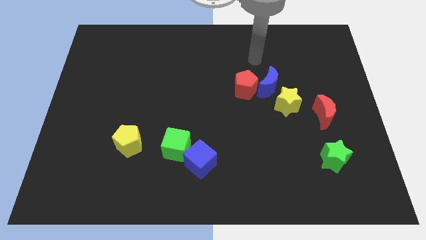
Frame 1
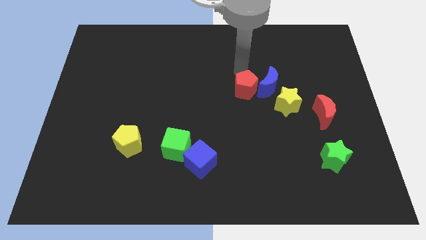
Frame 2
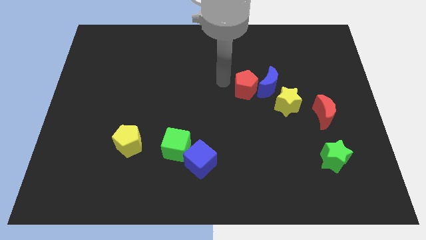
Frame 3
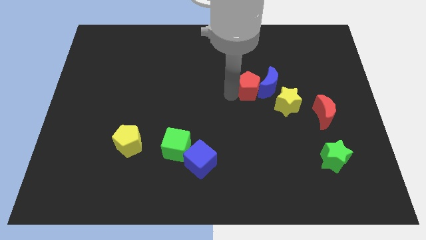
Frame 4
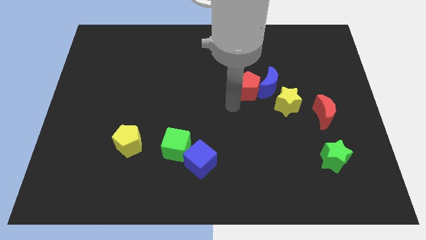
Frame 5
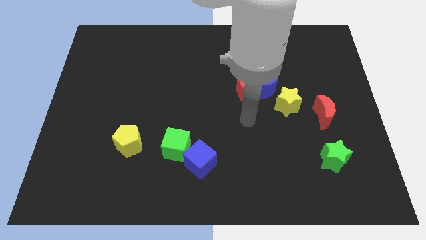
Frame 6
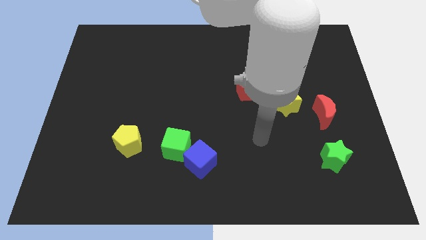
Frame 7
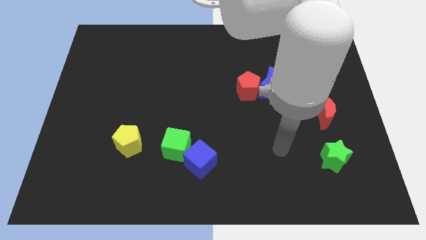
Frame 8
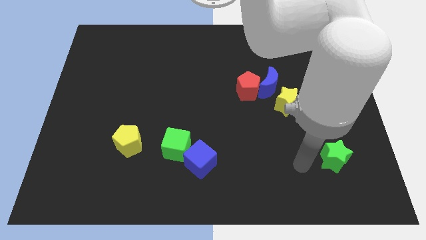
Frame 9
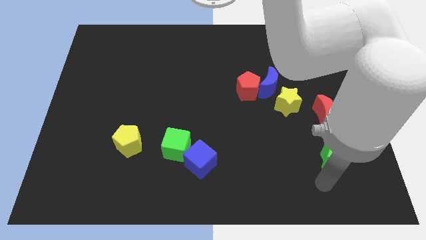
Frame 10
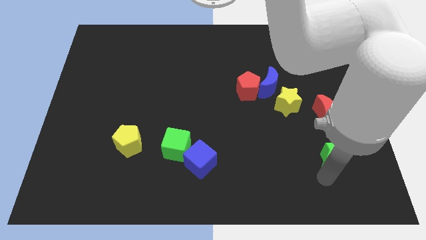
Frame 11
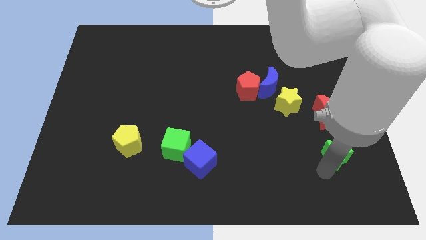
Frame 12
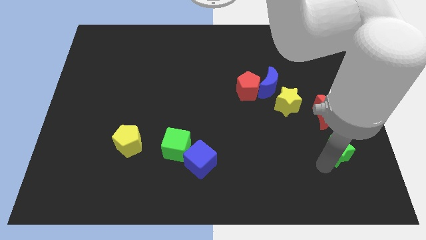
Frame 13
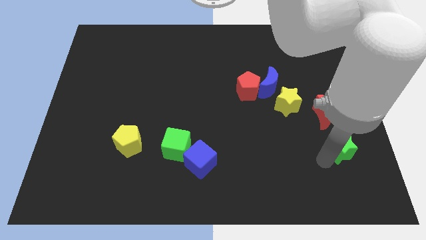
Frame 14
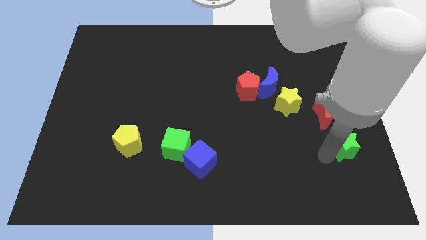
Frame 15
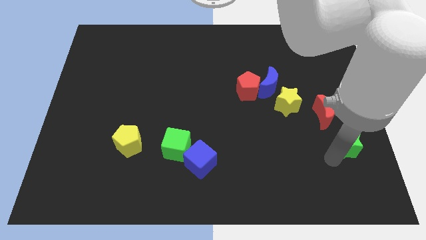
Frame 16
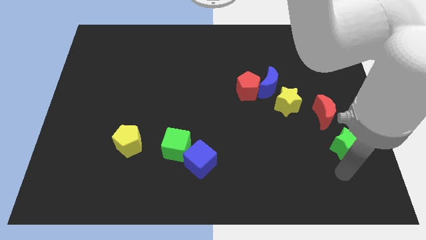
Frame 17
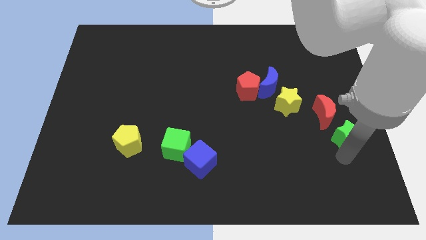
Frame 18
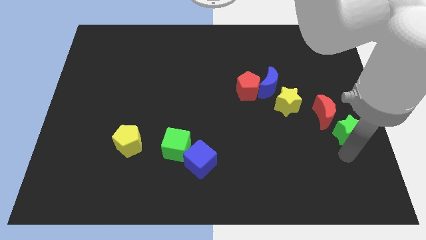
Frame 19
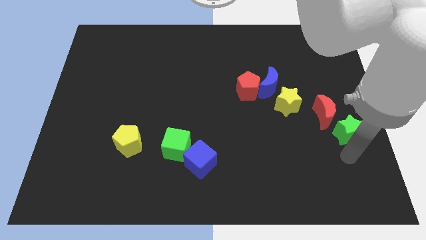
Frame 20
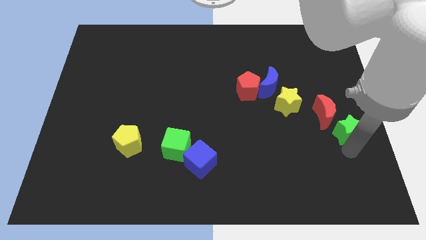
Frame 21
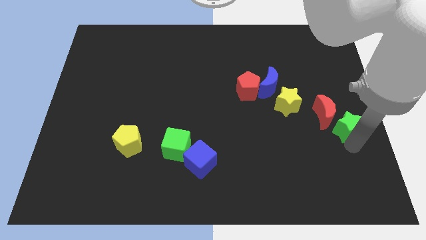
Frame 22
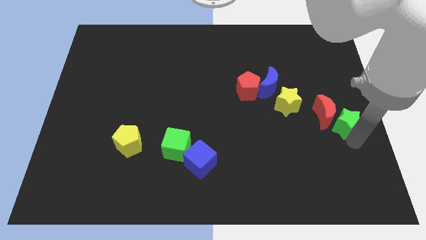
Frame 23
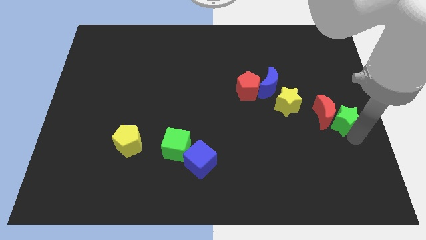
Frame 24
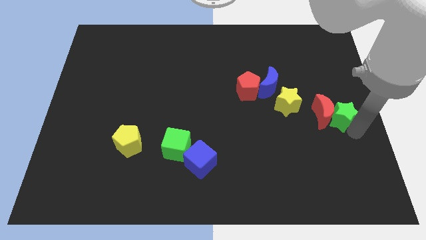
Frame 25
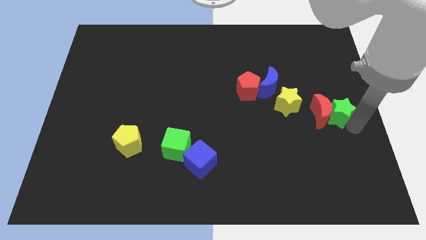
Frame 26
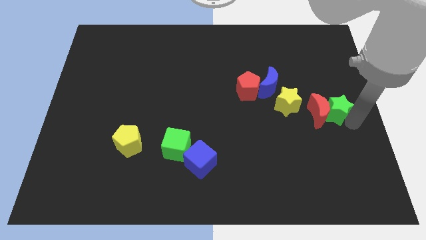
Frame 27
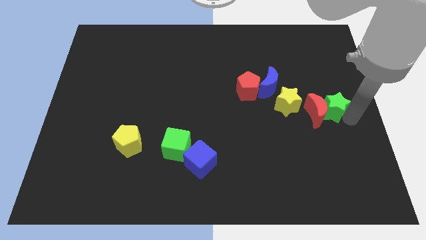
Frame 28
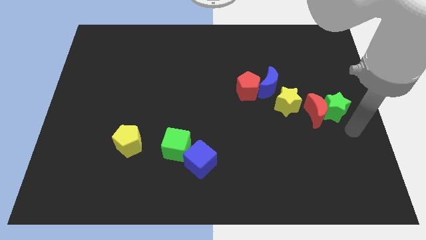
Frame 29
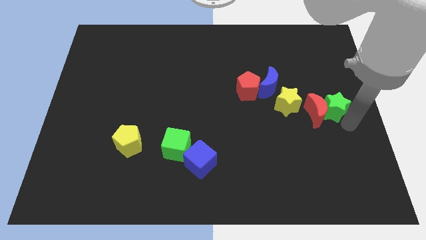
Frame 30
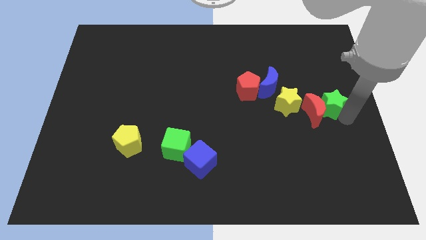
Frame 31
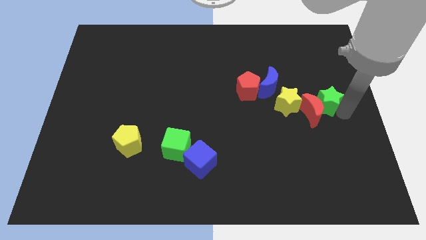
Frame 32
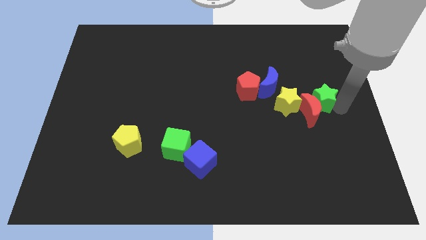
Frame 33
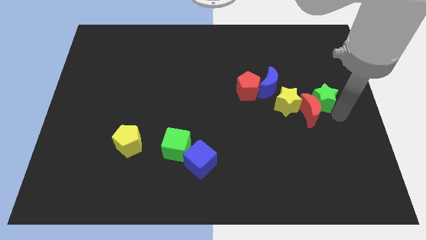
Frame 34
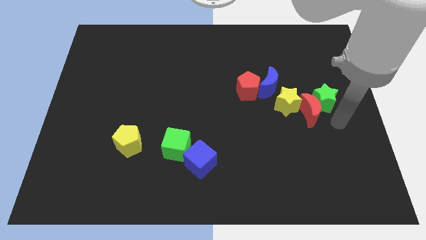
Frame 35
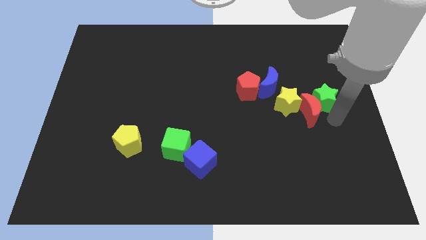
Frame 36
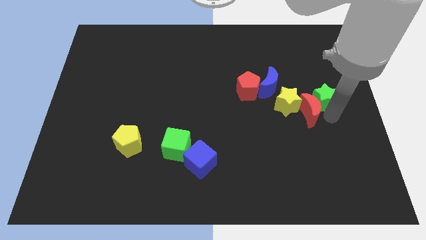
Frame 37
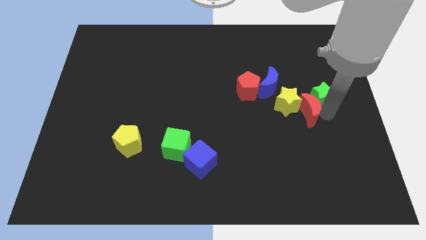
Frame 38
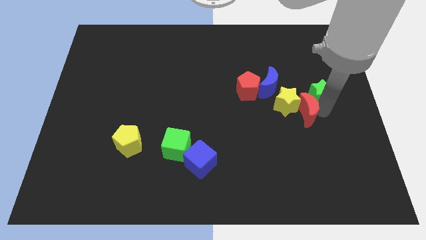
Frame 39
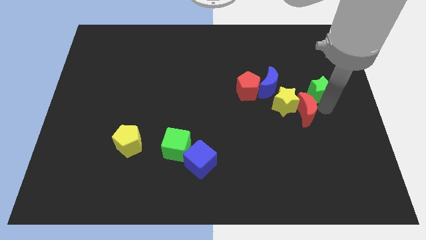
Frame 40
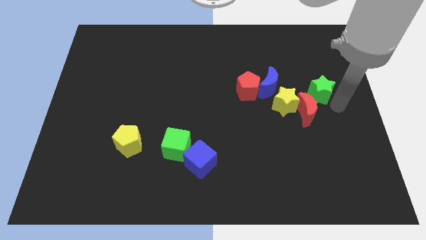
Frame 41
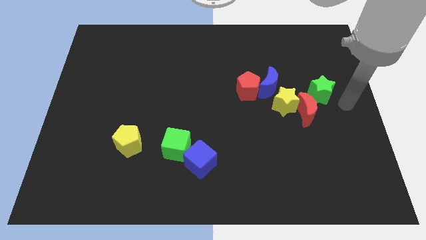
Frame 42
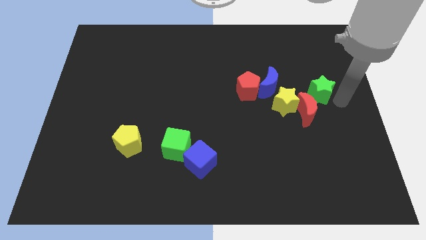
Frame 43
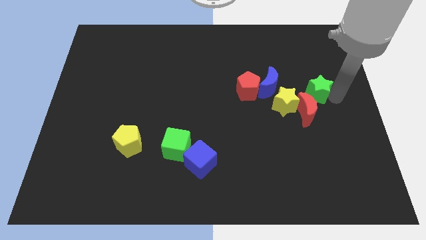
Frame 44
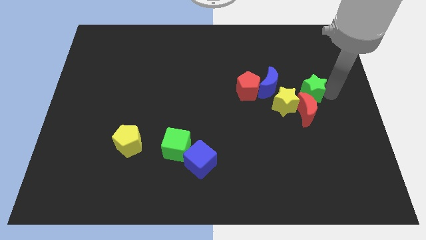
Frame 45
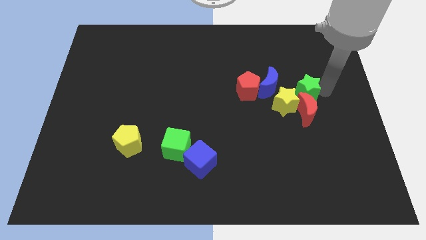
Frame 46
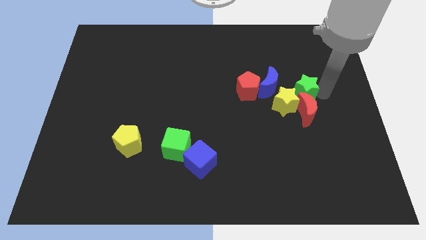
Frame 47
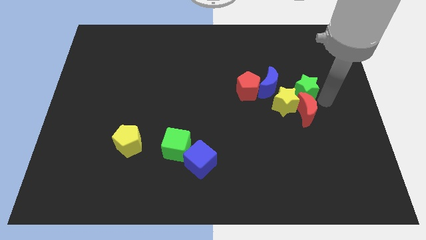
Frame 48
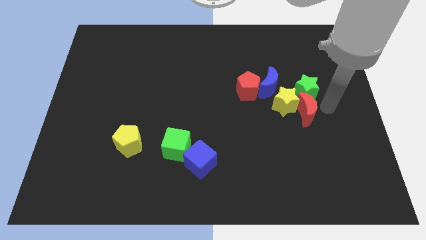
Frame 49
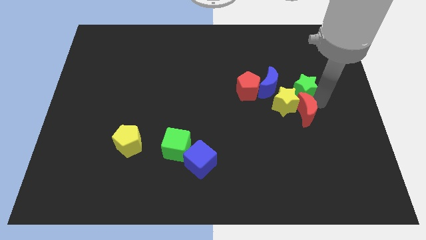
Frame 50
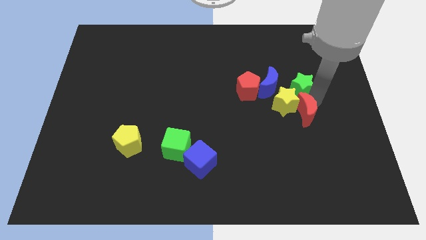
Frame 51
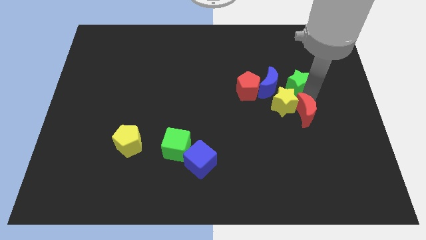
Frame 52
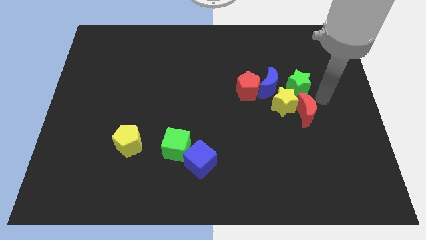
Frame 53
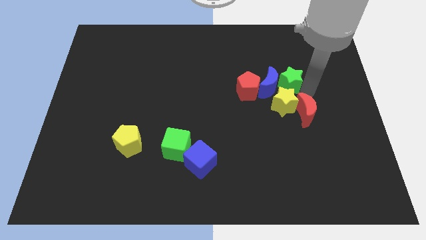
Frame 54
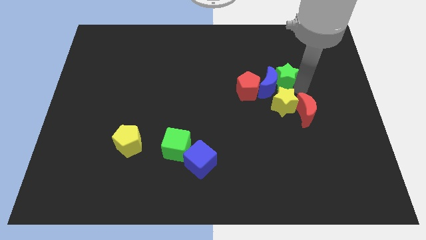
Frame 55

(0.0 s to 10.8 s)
move the green star diagonally up and to the right of the red pentagon

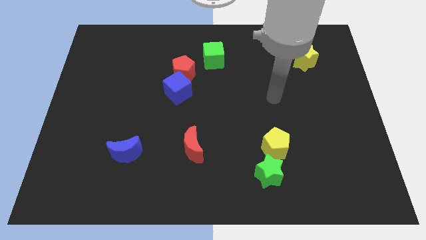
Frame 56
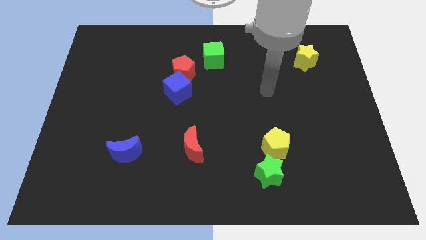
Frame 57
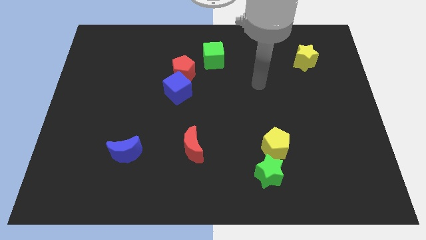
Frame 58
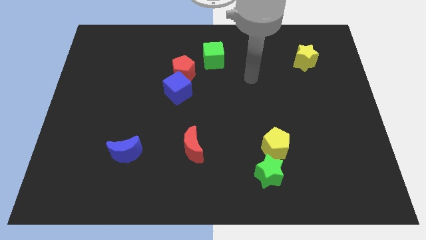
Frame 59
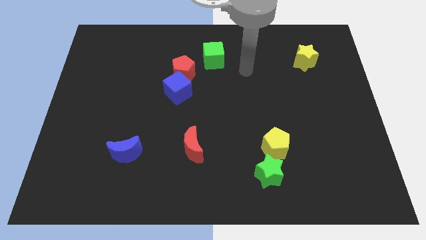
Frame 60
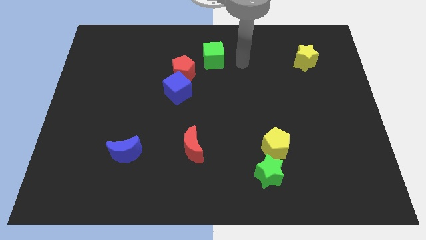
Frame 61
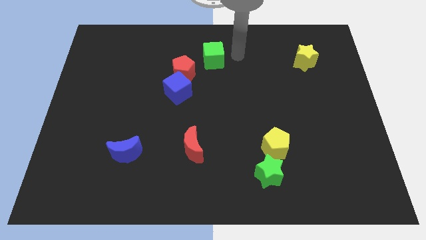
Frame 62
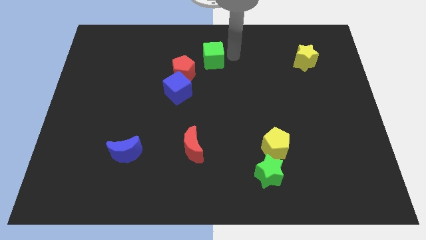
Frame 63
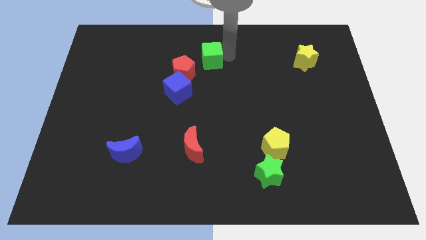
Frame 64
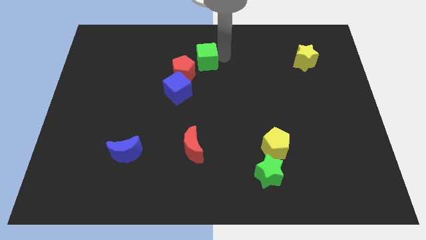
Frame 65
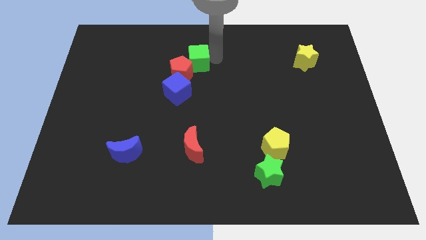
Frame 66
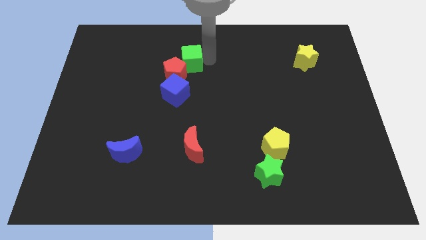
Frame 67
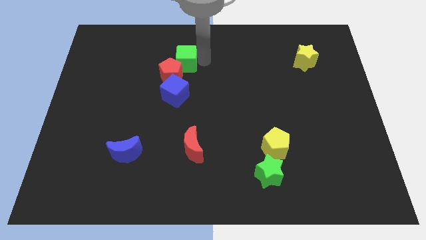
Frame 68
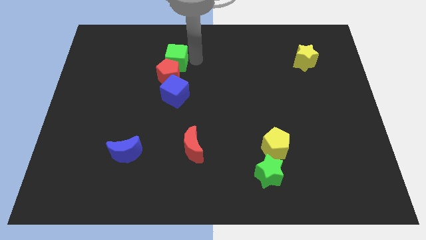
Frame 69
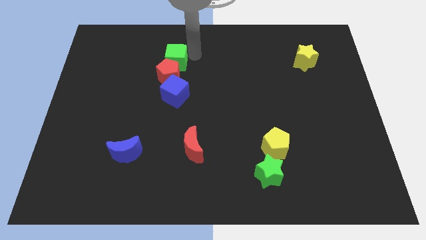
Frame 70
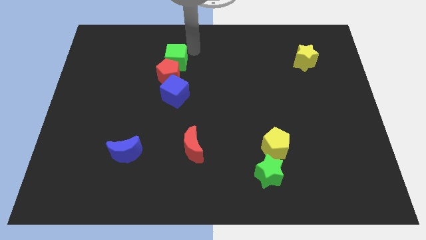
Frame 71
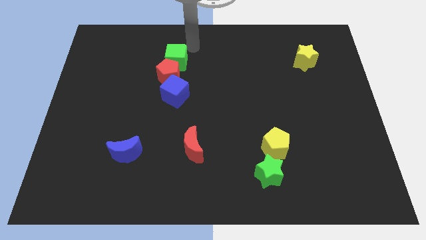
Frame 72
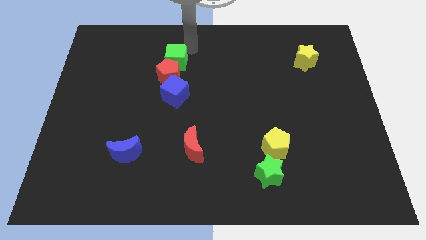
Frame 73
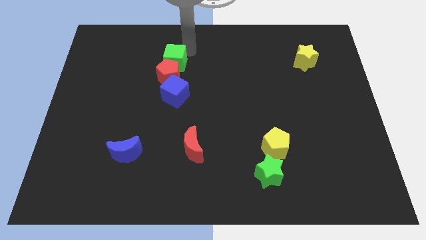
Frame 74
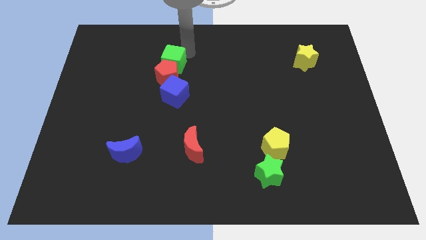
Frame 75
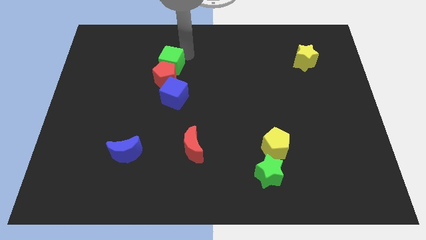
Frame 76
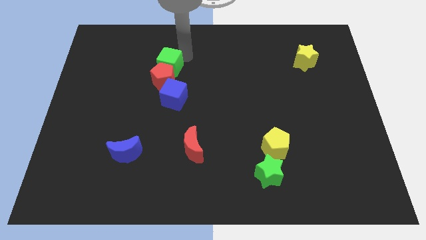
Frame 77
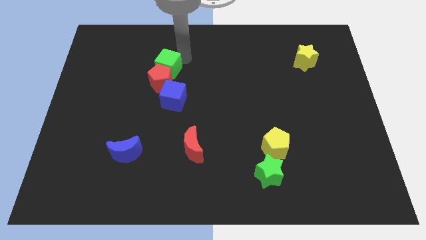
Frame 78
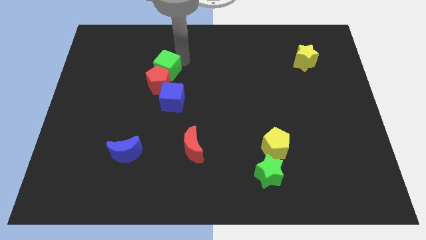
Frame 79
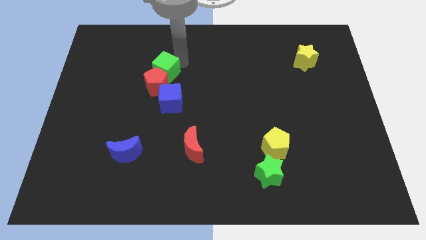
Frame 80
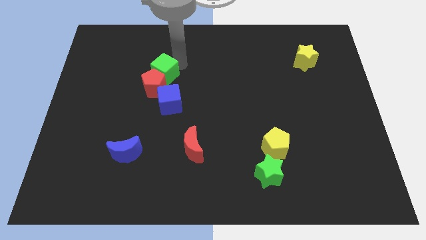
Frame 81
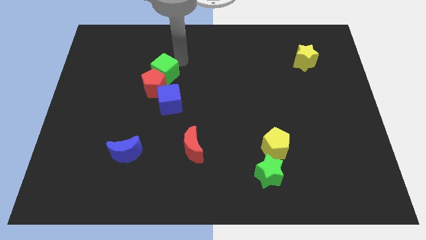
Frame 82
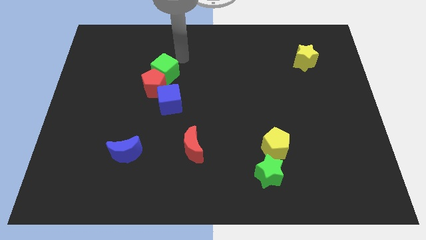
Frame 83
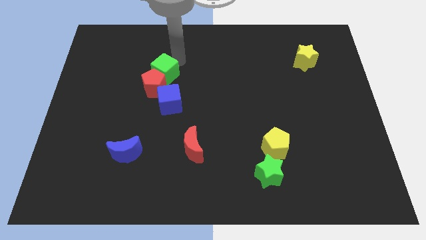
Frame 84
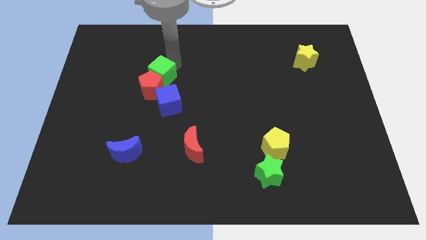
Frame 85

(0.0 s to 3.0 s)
put the green cube diagonally up and to the left of the blue cube
